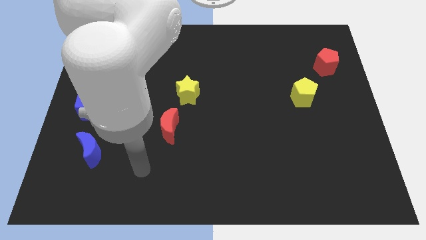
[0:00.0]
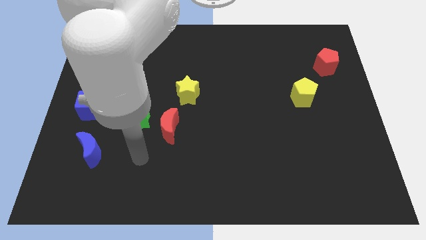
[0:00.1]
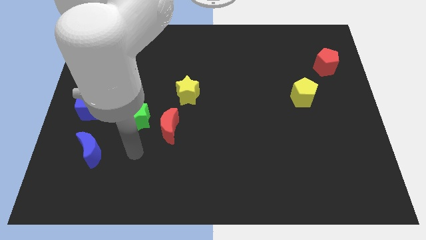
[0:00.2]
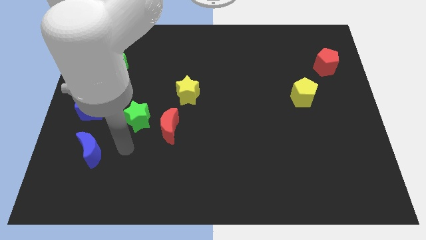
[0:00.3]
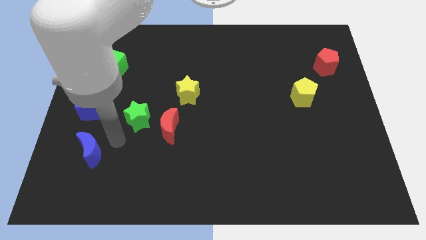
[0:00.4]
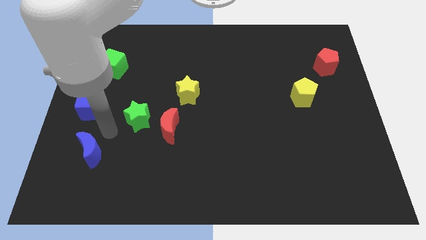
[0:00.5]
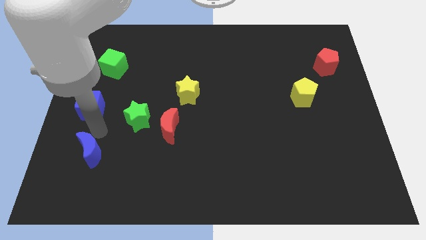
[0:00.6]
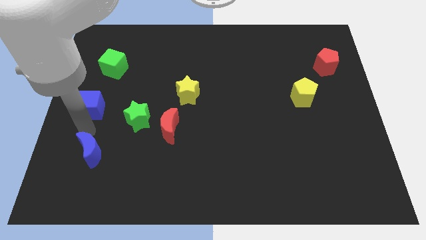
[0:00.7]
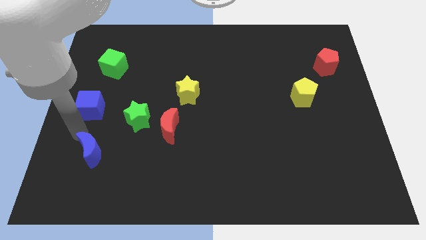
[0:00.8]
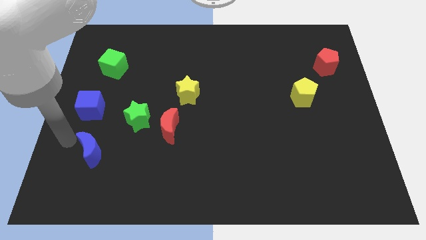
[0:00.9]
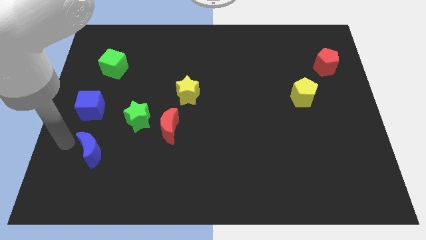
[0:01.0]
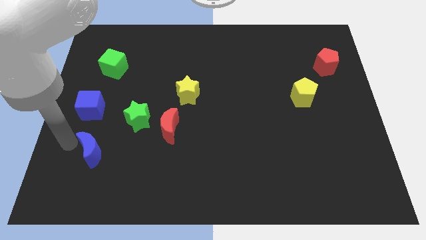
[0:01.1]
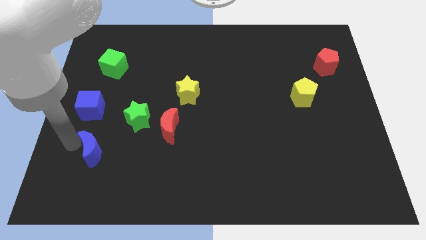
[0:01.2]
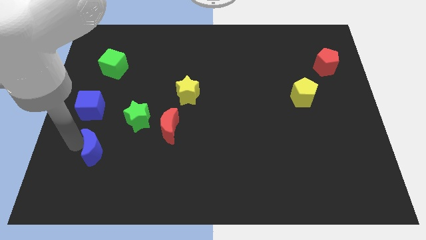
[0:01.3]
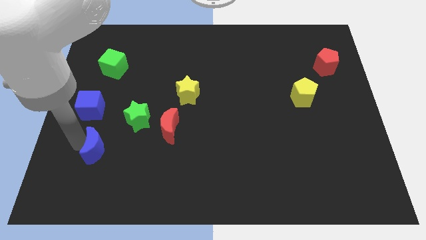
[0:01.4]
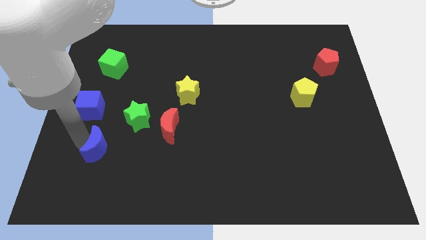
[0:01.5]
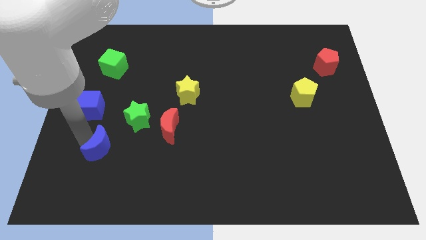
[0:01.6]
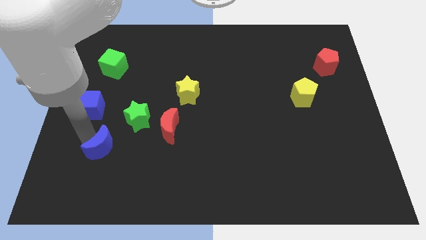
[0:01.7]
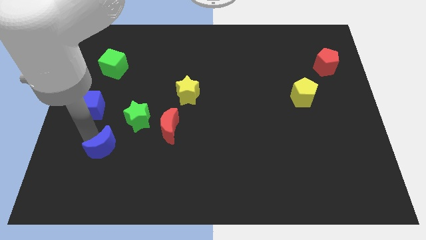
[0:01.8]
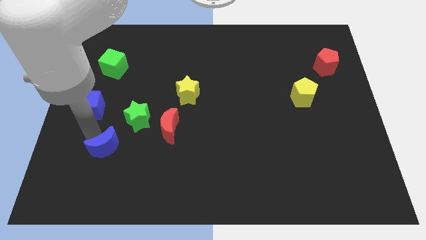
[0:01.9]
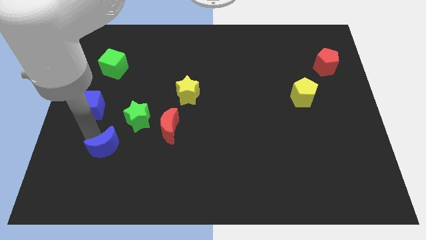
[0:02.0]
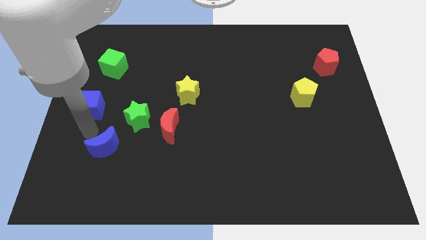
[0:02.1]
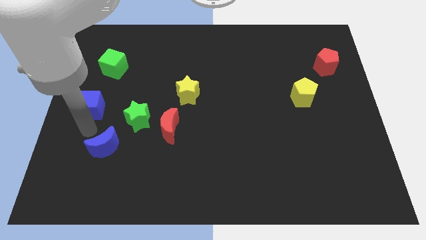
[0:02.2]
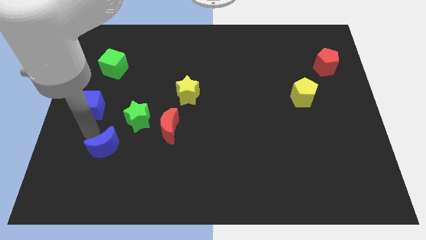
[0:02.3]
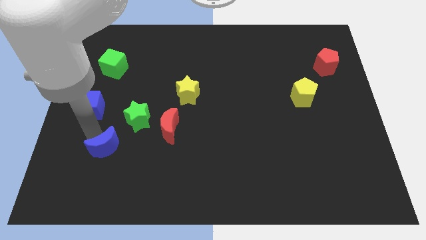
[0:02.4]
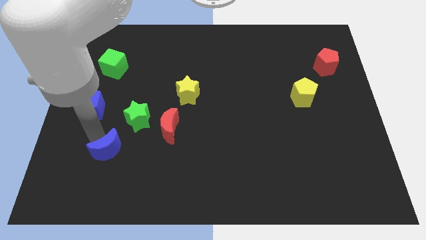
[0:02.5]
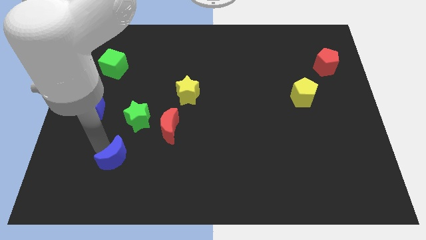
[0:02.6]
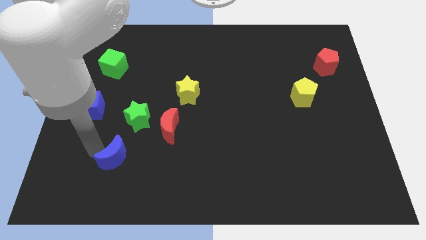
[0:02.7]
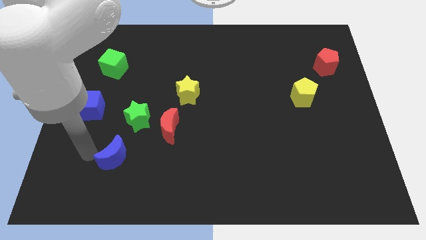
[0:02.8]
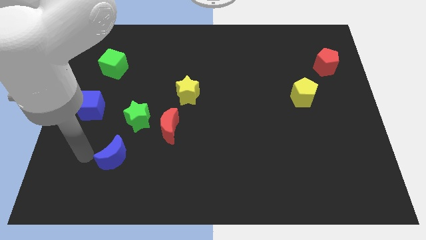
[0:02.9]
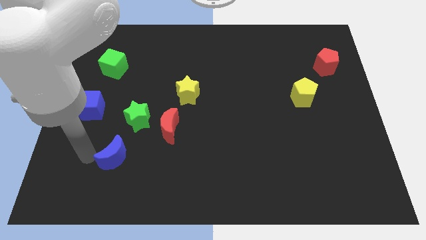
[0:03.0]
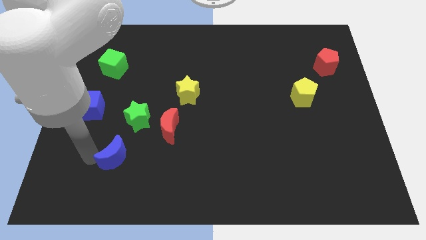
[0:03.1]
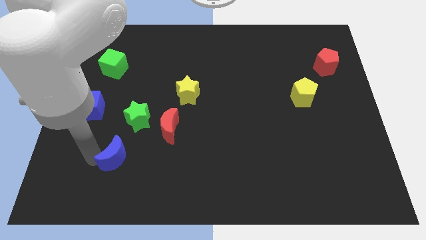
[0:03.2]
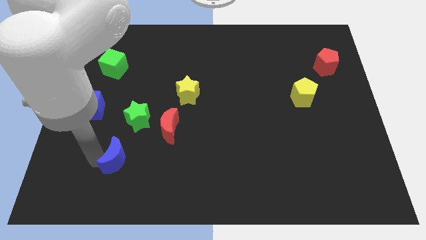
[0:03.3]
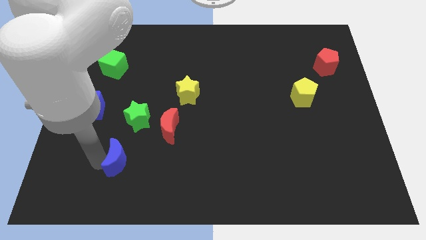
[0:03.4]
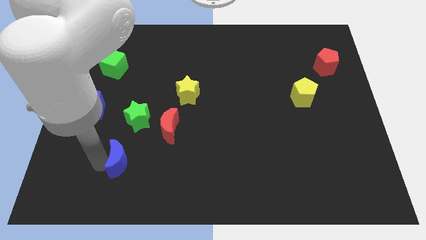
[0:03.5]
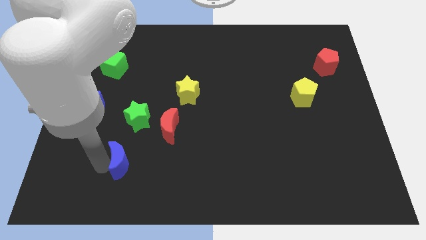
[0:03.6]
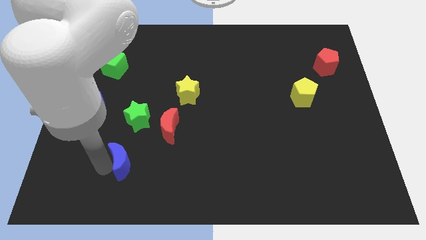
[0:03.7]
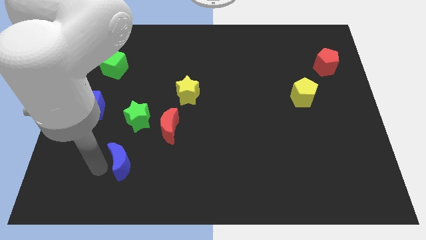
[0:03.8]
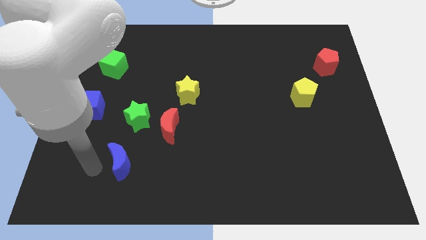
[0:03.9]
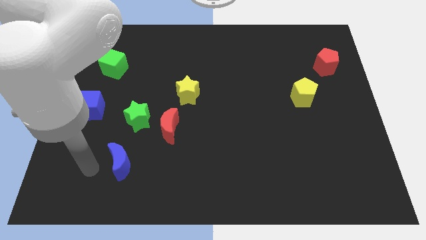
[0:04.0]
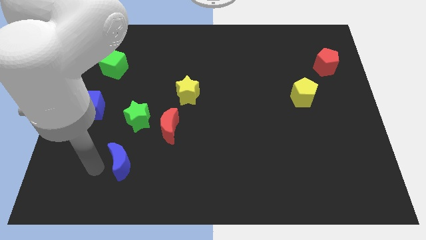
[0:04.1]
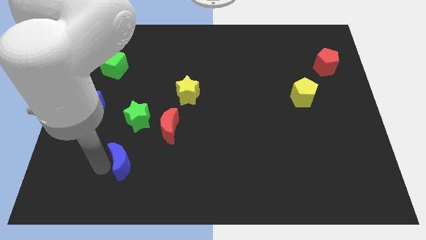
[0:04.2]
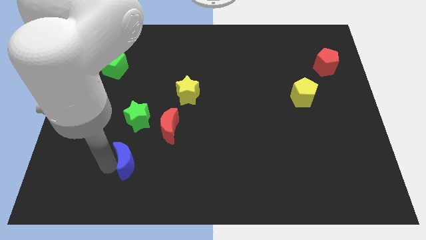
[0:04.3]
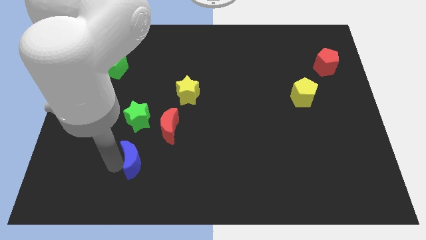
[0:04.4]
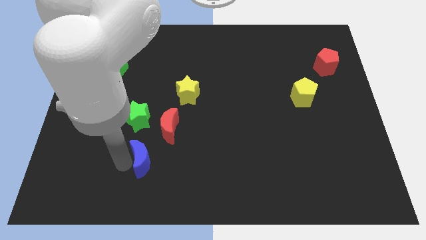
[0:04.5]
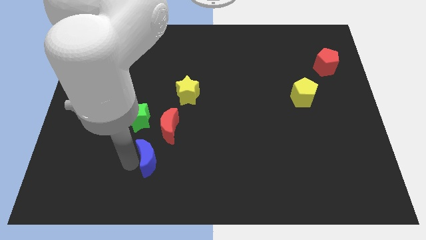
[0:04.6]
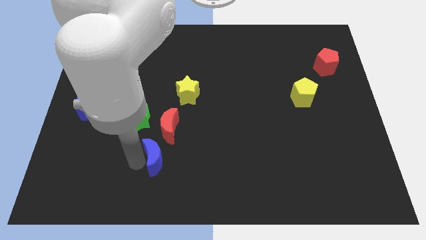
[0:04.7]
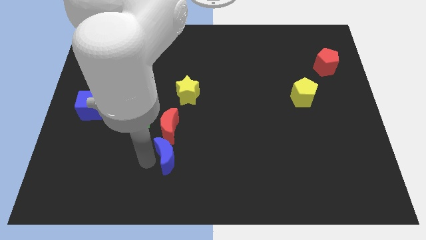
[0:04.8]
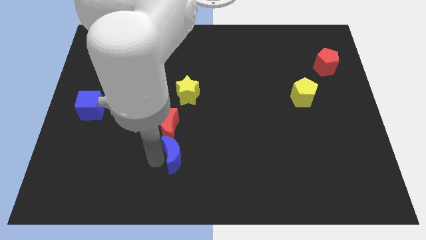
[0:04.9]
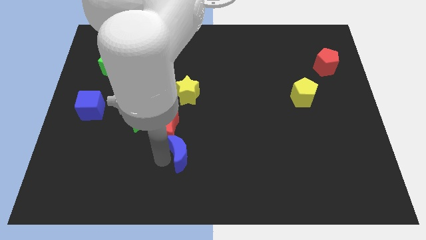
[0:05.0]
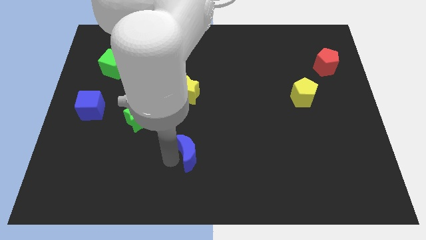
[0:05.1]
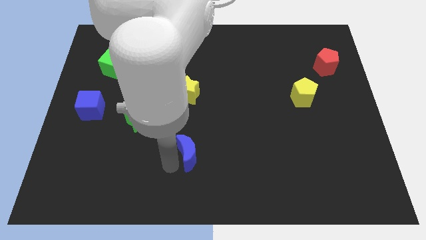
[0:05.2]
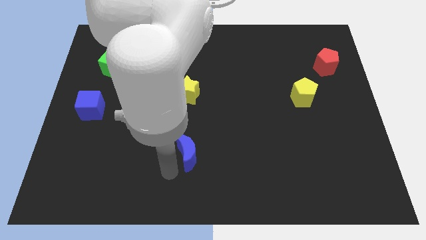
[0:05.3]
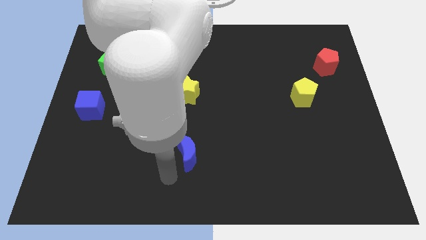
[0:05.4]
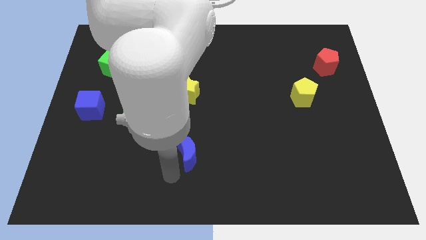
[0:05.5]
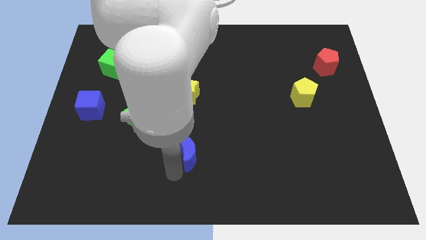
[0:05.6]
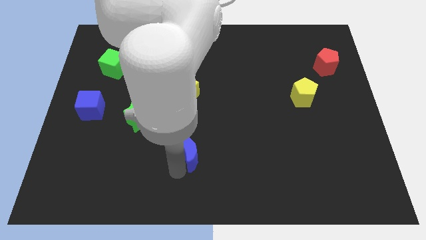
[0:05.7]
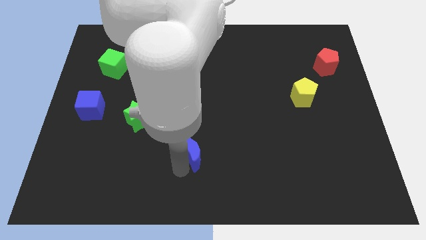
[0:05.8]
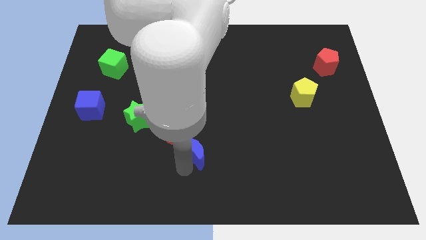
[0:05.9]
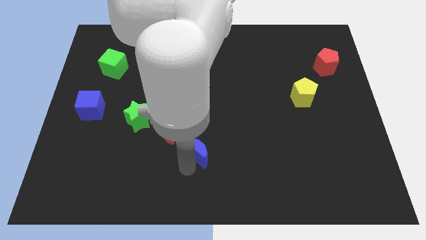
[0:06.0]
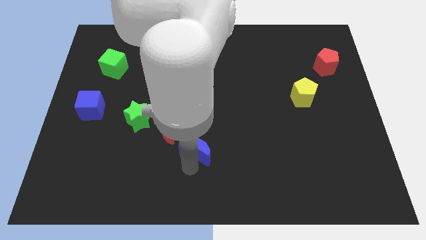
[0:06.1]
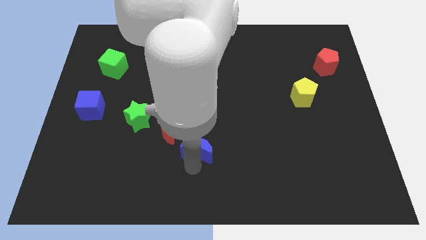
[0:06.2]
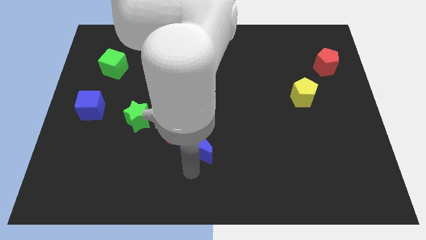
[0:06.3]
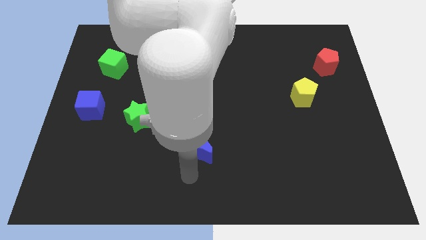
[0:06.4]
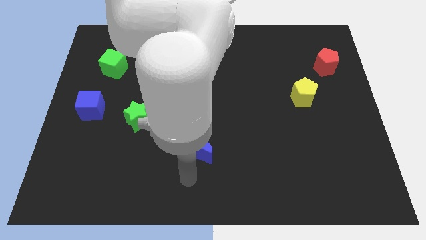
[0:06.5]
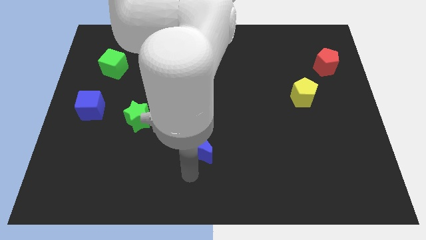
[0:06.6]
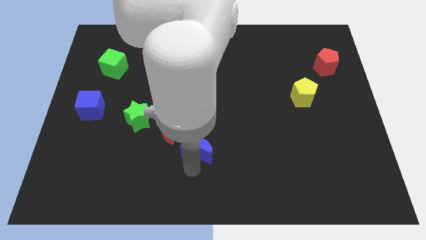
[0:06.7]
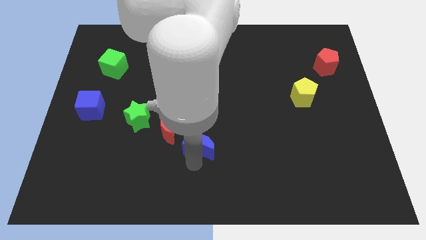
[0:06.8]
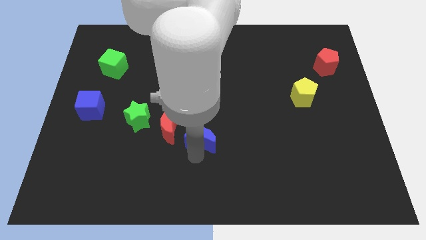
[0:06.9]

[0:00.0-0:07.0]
move the blue moon to the right of the red moon
